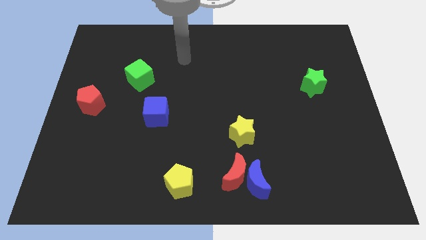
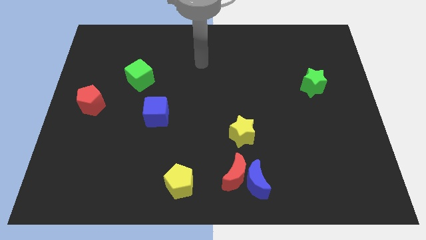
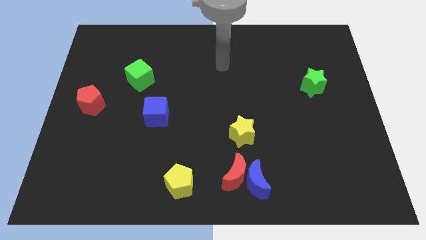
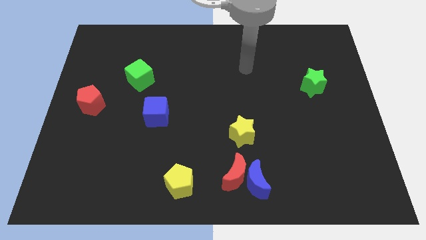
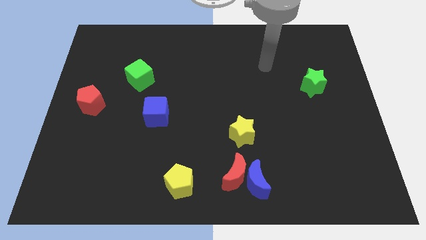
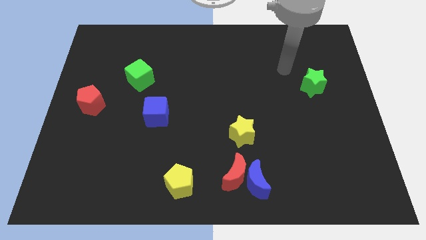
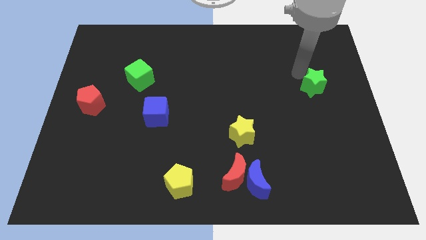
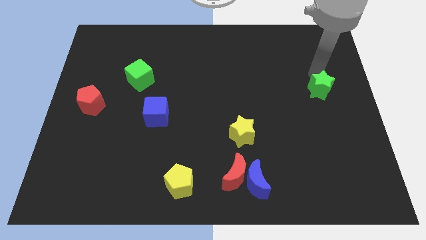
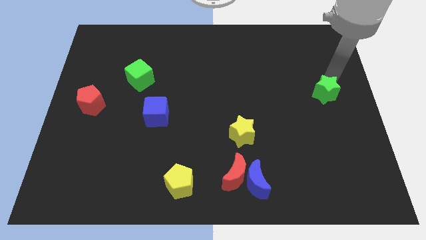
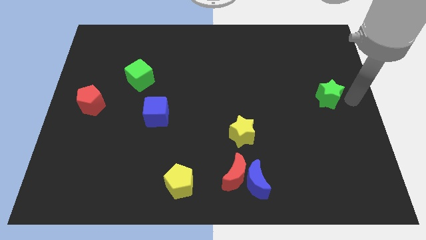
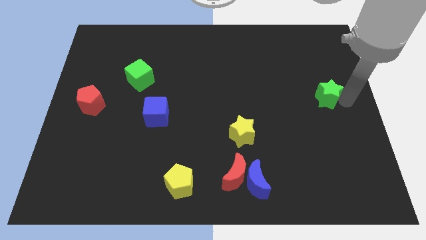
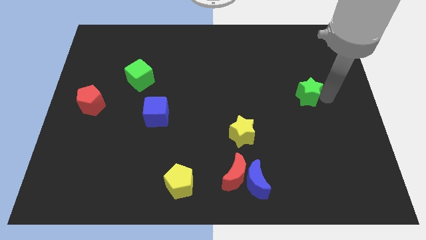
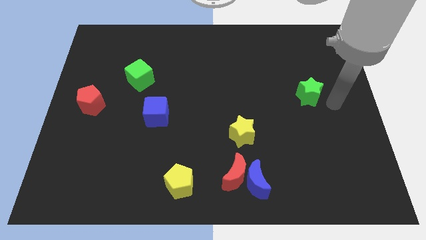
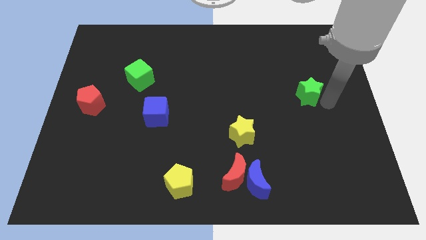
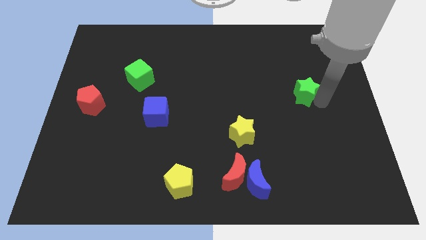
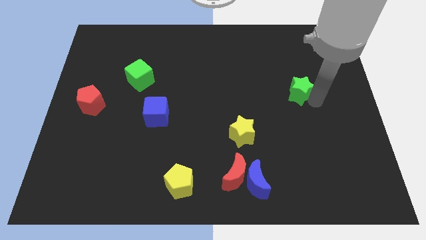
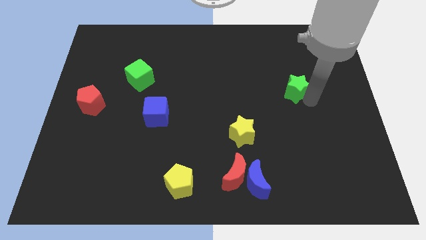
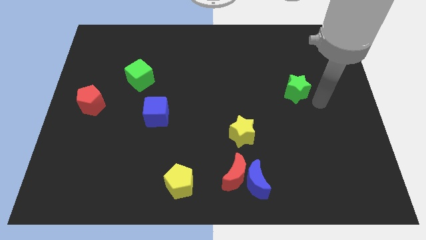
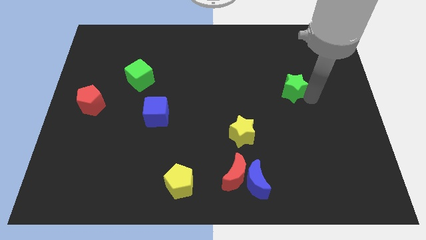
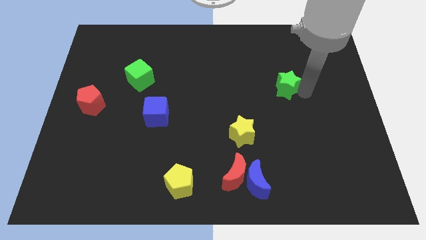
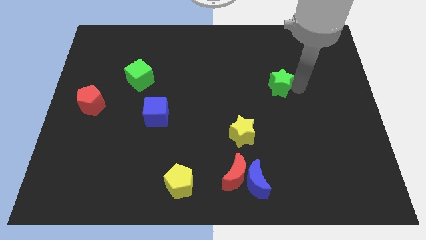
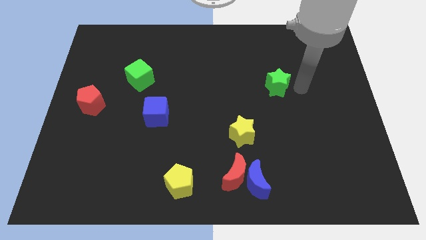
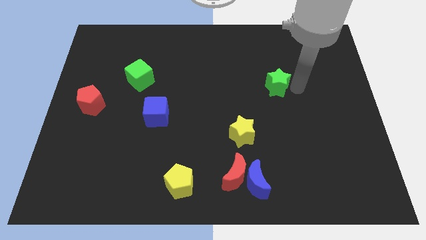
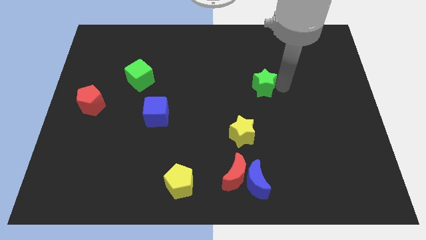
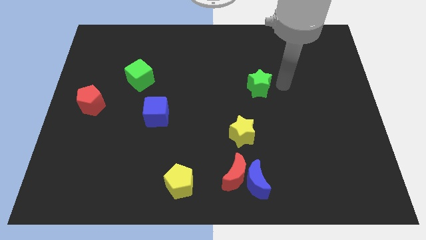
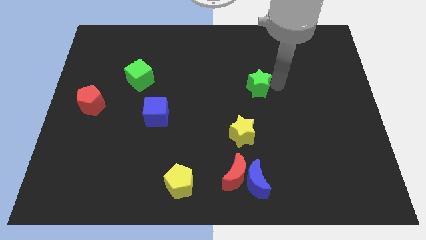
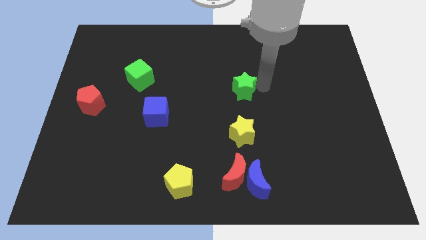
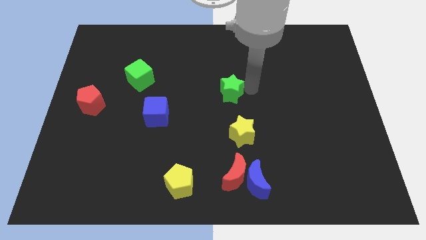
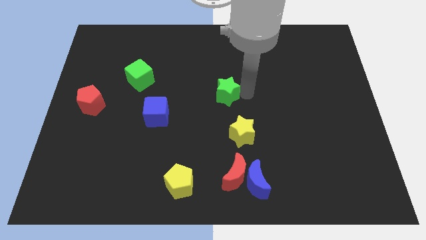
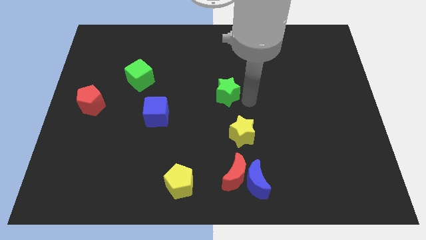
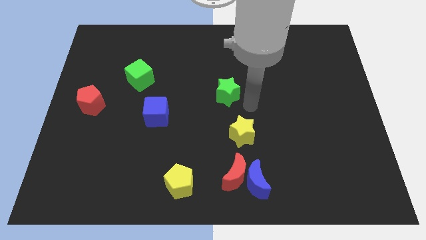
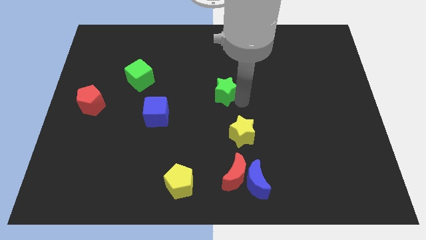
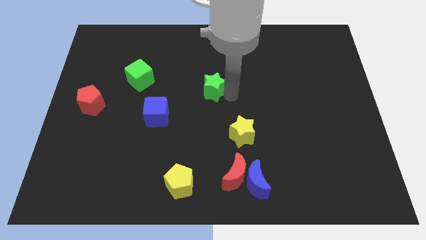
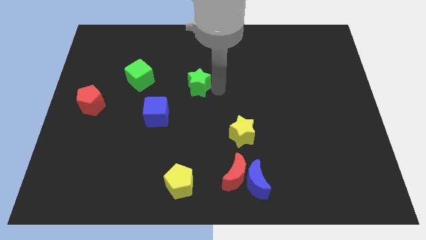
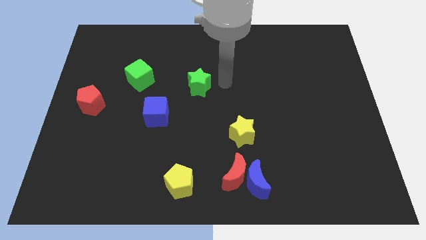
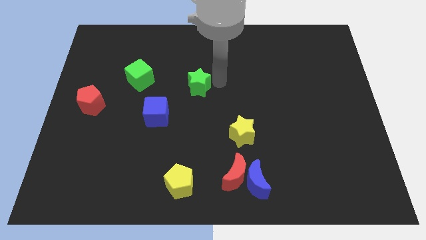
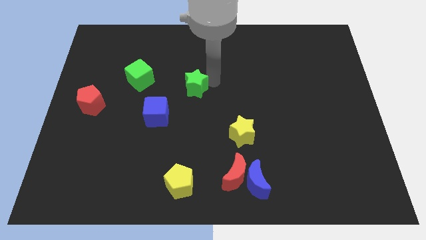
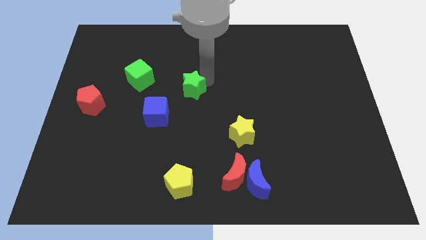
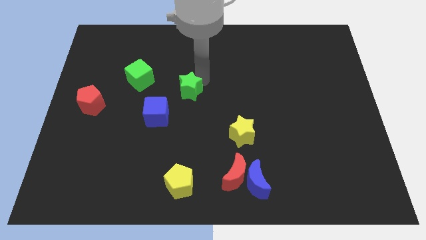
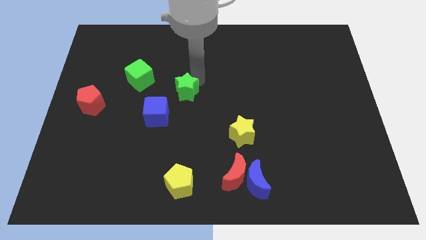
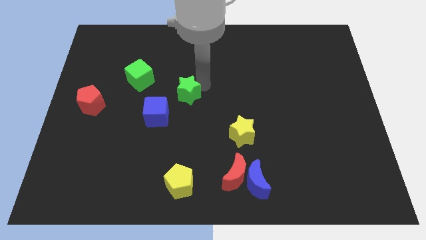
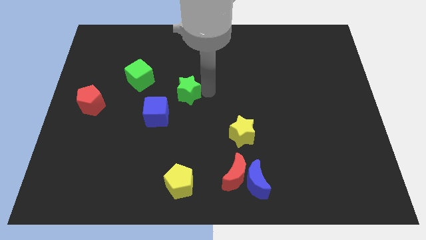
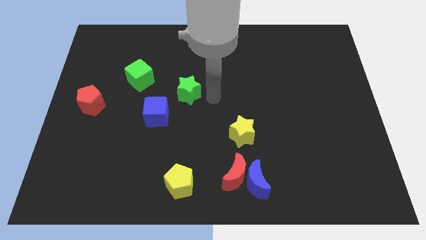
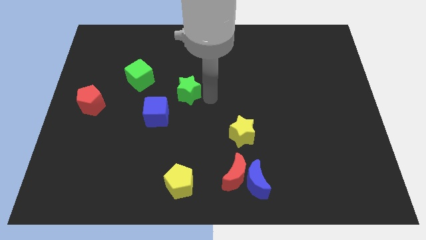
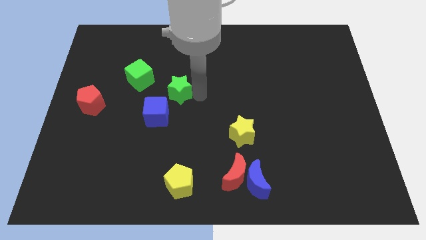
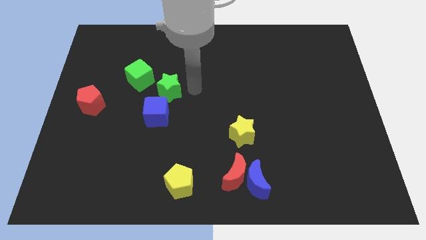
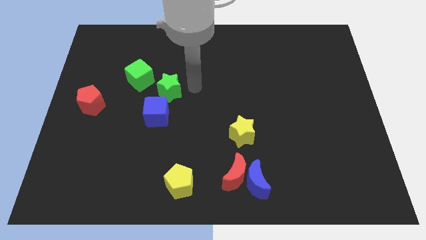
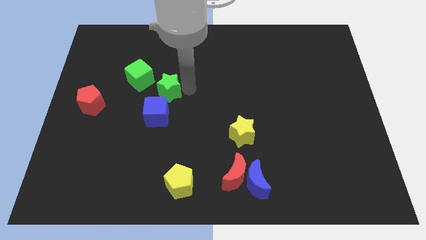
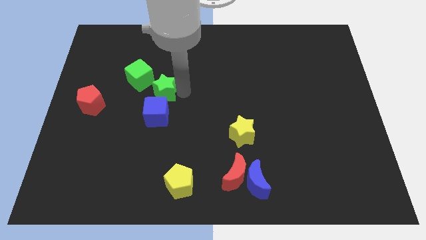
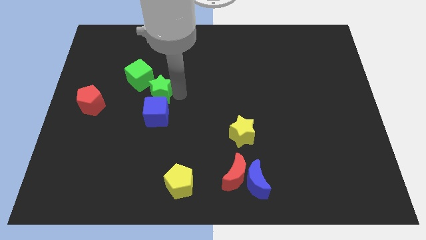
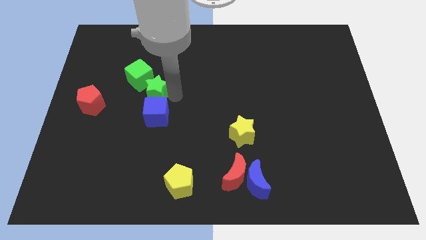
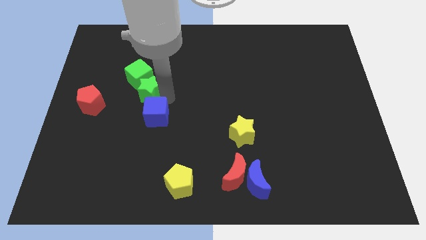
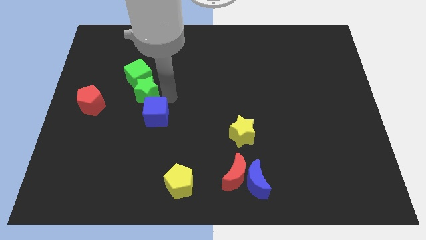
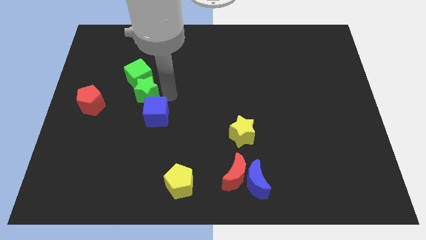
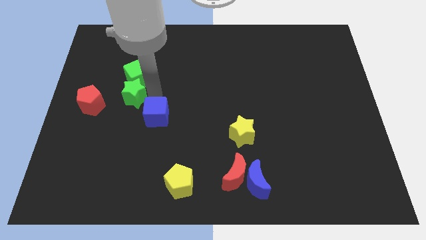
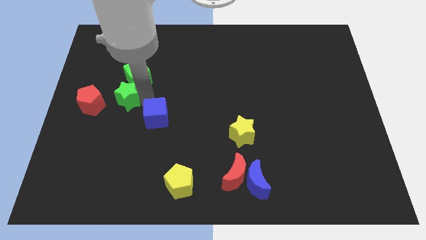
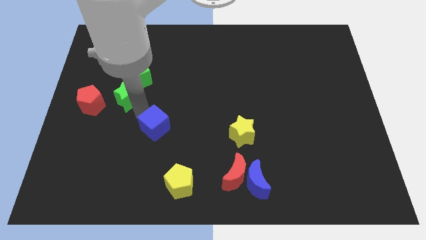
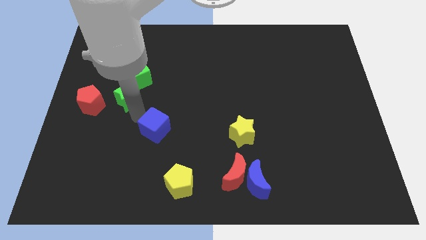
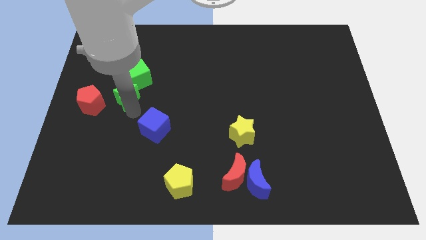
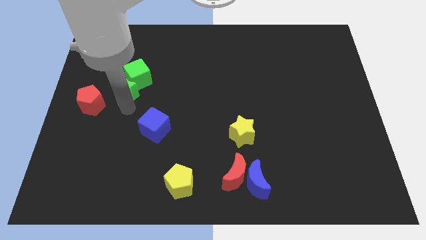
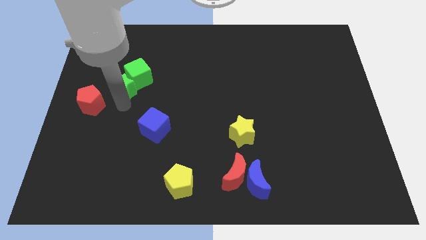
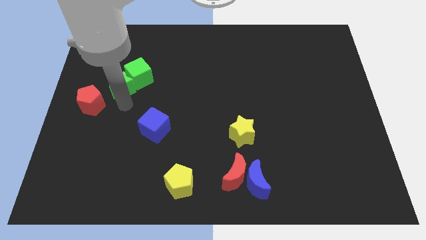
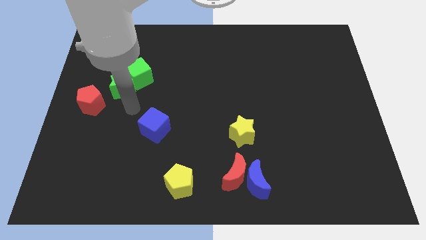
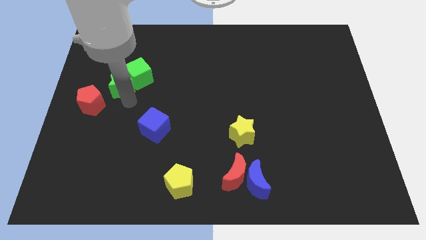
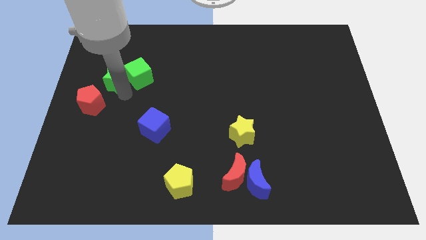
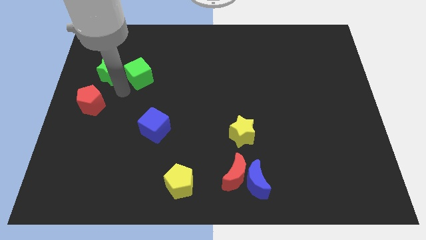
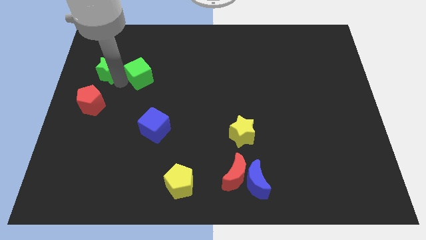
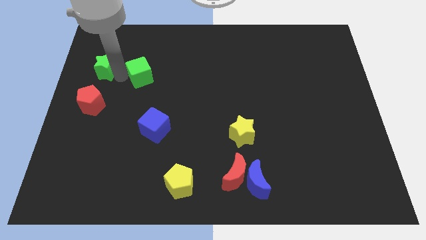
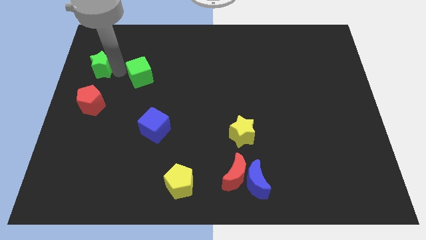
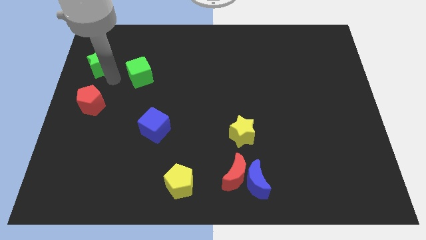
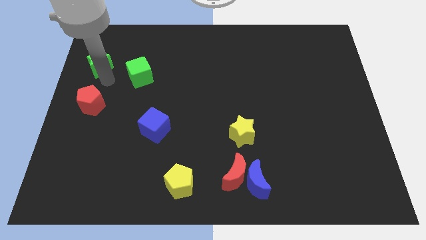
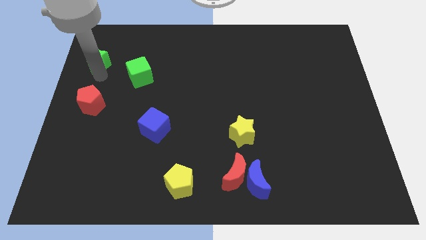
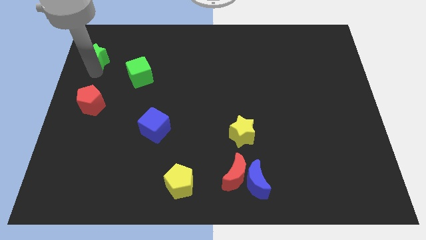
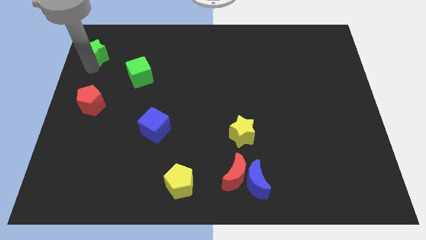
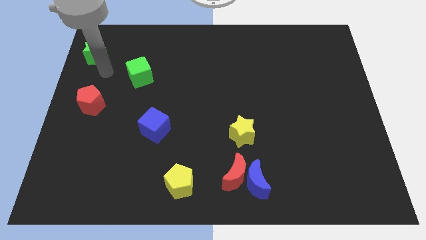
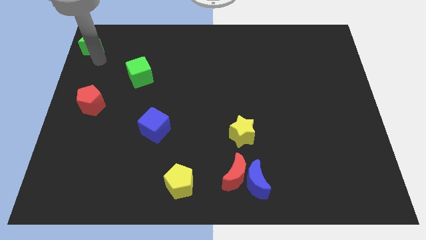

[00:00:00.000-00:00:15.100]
push the green star to the top left corner
